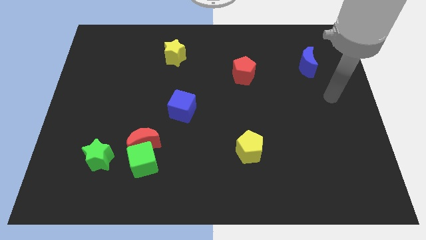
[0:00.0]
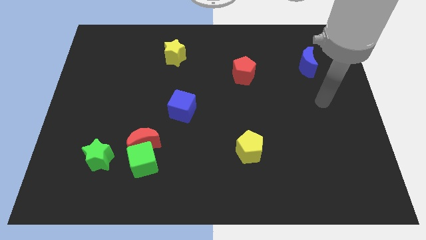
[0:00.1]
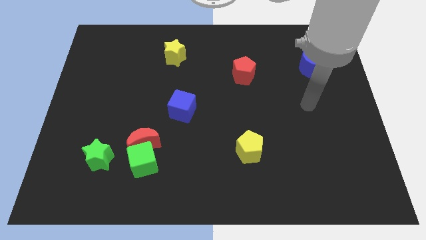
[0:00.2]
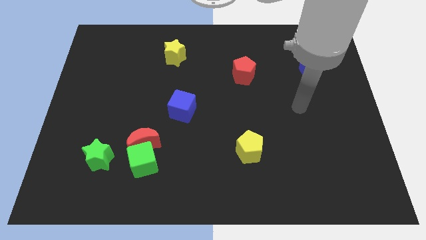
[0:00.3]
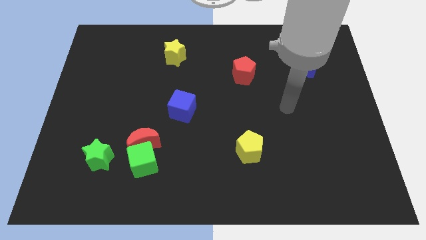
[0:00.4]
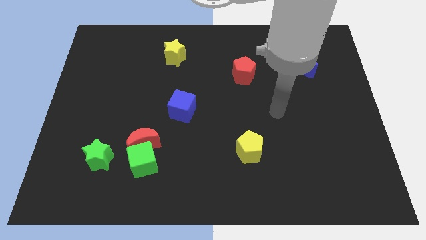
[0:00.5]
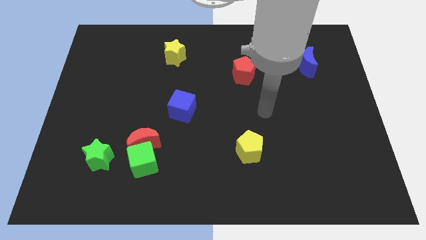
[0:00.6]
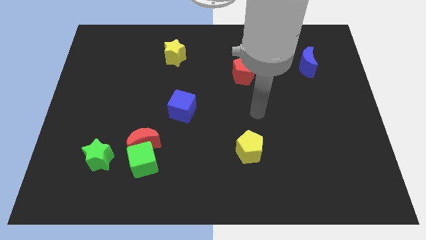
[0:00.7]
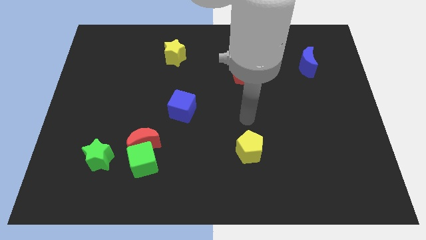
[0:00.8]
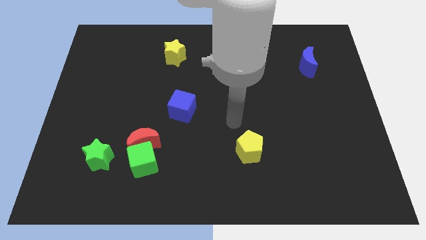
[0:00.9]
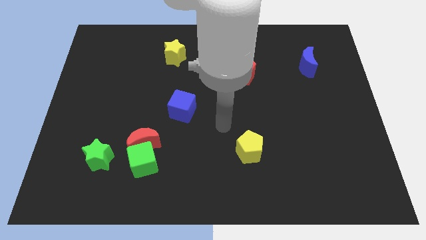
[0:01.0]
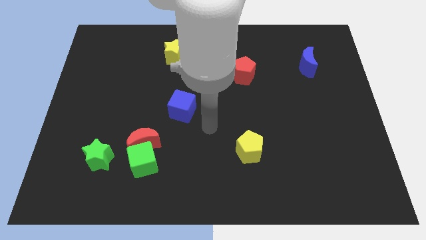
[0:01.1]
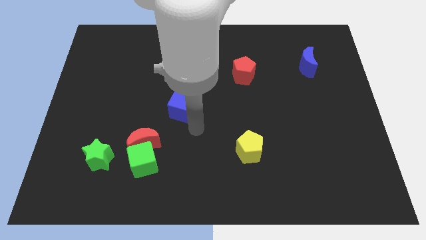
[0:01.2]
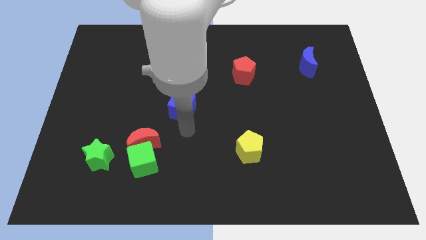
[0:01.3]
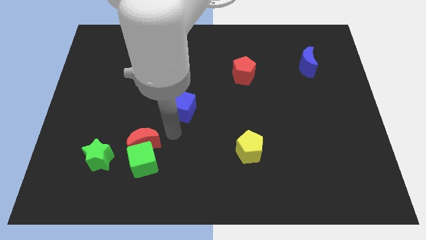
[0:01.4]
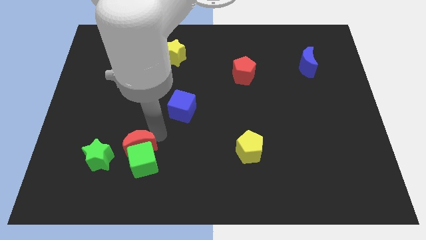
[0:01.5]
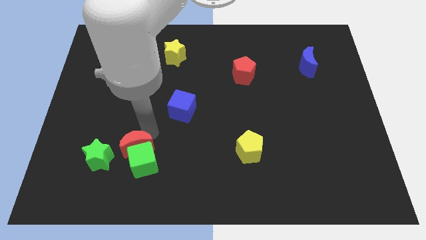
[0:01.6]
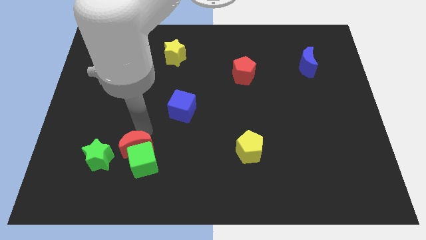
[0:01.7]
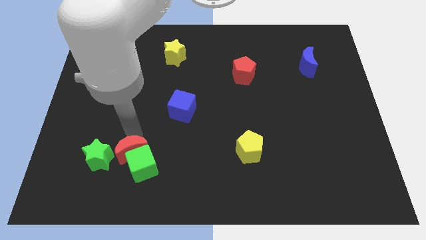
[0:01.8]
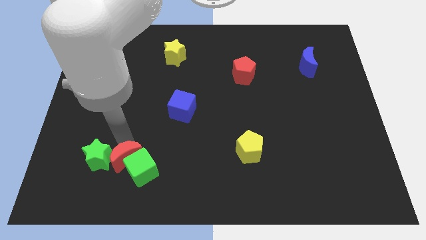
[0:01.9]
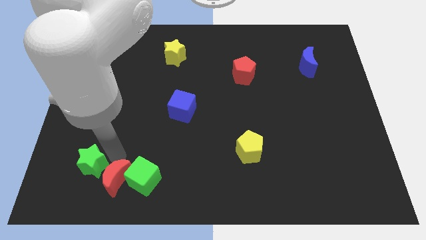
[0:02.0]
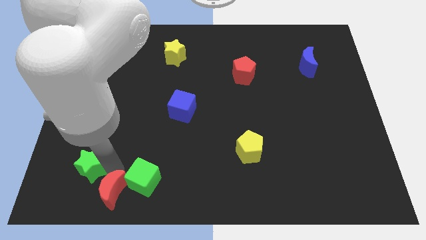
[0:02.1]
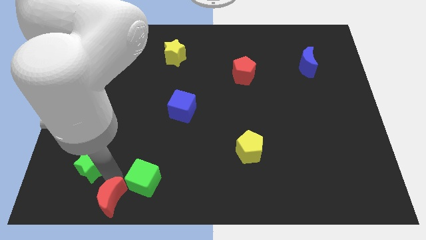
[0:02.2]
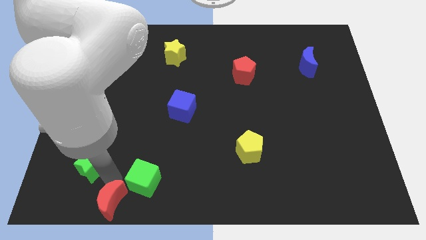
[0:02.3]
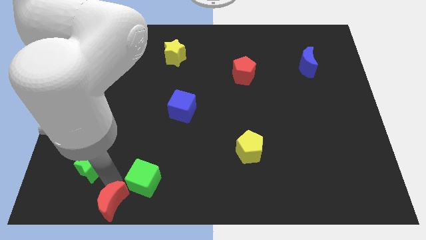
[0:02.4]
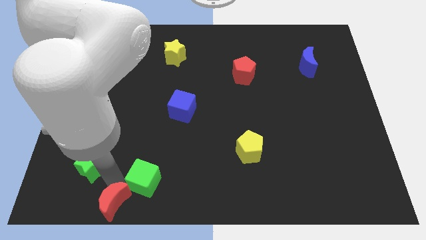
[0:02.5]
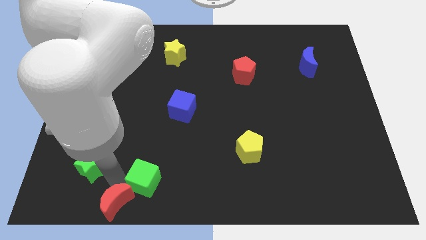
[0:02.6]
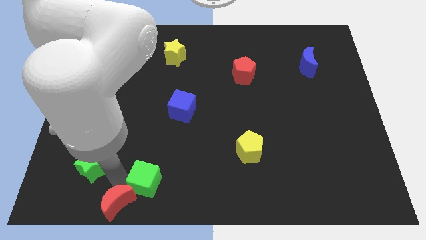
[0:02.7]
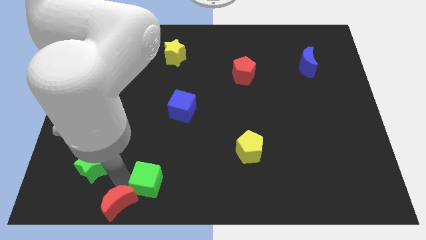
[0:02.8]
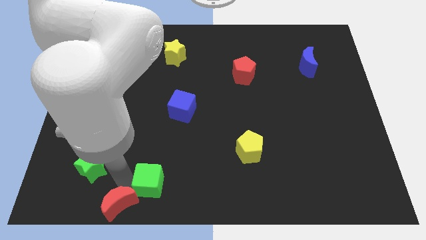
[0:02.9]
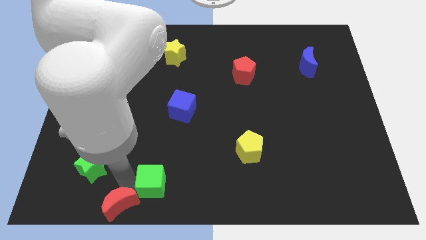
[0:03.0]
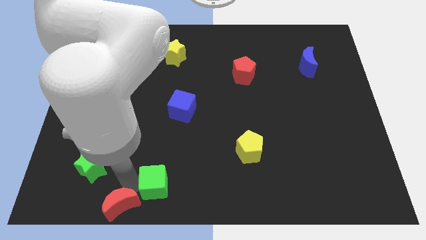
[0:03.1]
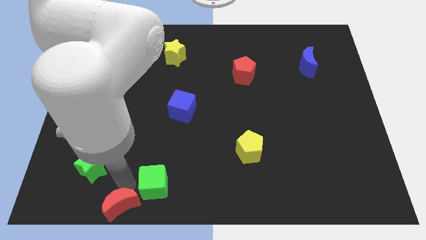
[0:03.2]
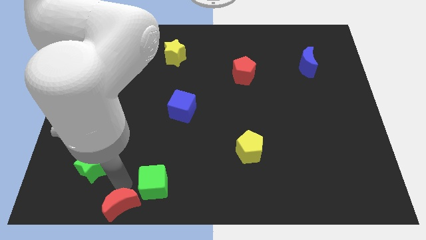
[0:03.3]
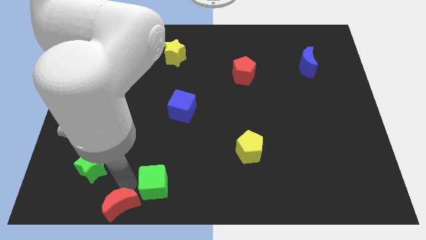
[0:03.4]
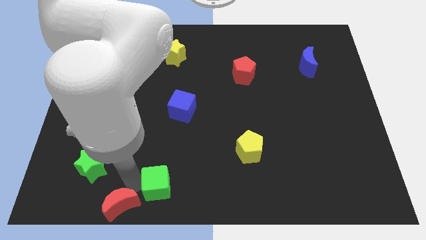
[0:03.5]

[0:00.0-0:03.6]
move the green cube away from the red moon and green star

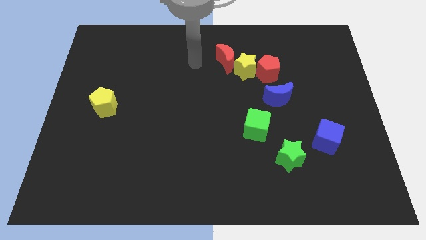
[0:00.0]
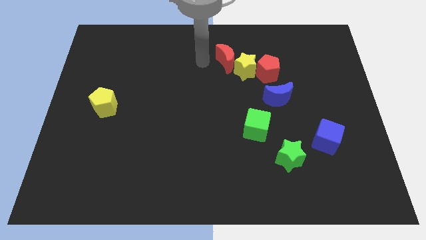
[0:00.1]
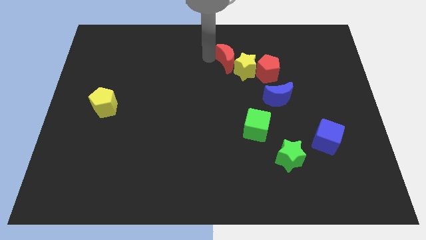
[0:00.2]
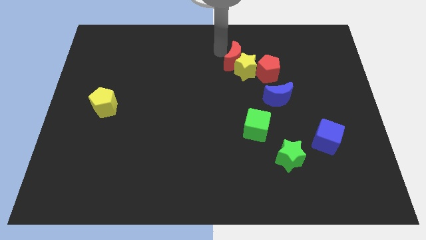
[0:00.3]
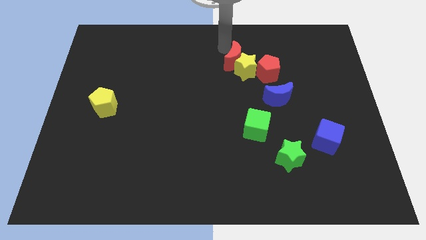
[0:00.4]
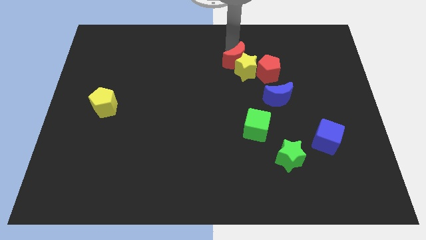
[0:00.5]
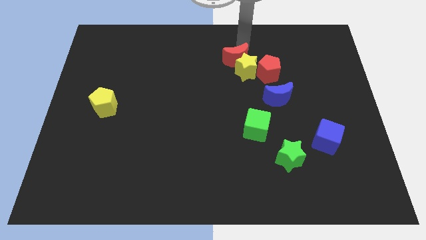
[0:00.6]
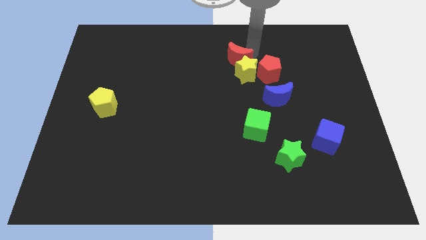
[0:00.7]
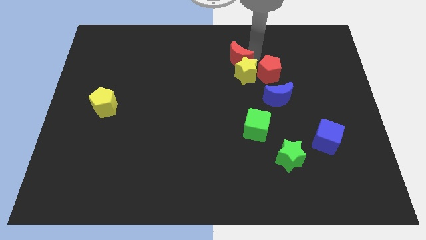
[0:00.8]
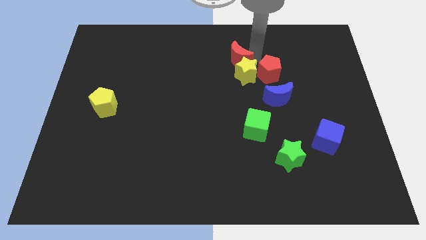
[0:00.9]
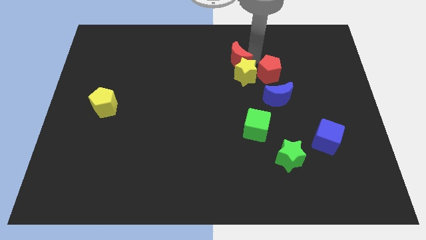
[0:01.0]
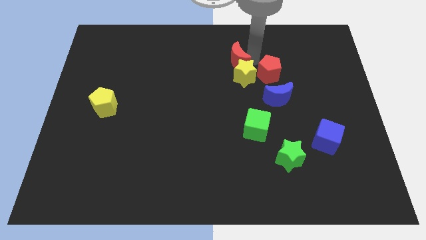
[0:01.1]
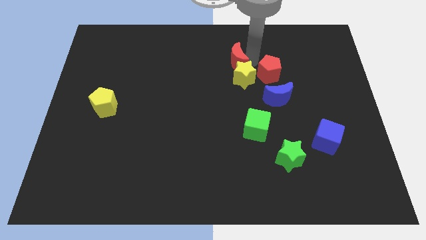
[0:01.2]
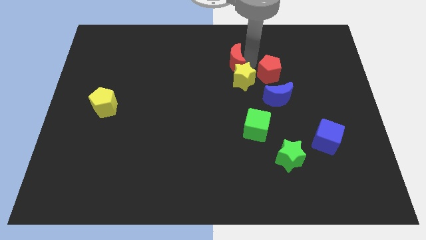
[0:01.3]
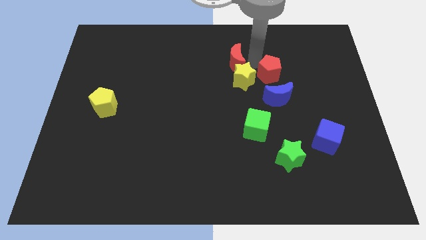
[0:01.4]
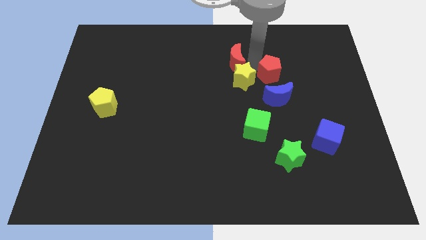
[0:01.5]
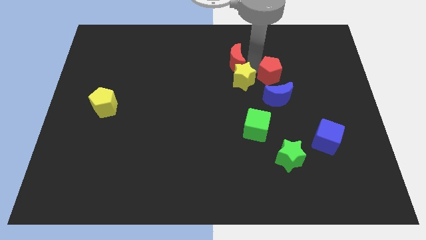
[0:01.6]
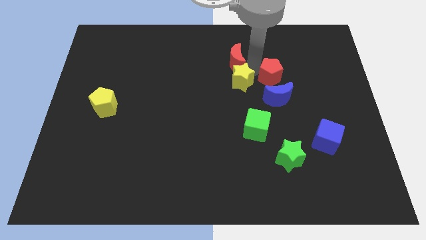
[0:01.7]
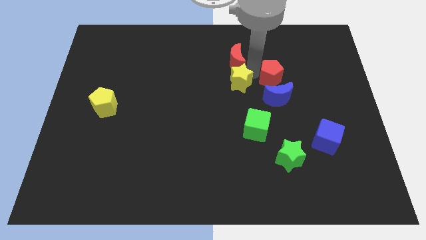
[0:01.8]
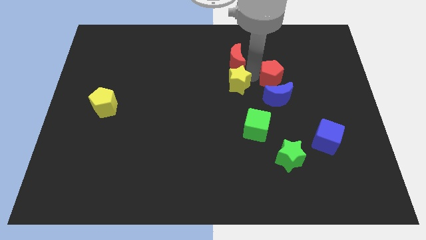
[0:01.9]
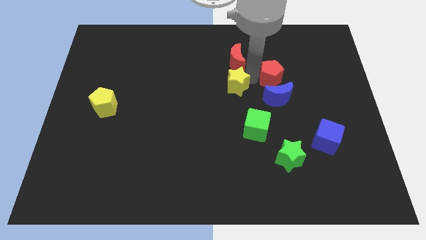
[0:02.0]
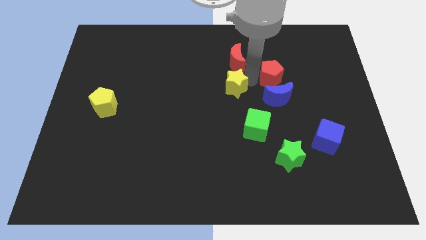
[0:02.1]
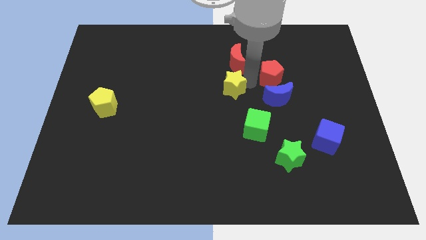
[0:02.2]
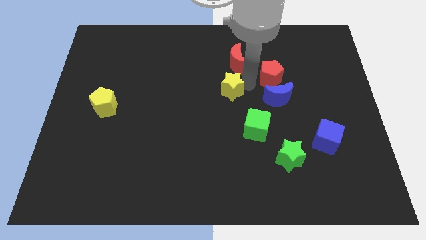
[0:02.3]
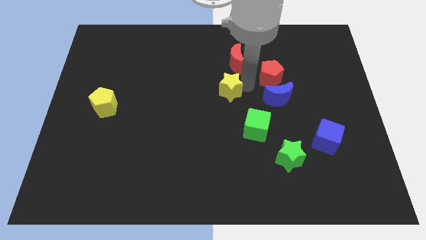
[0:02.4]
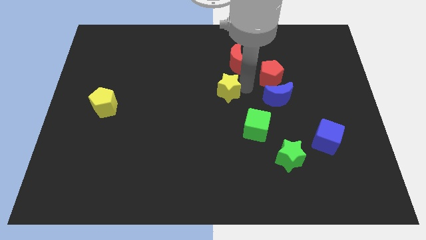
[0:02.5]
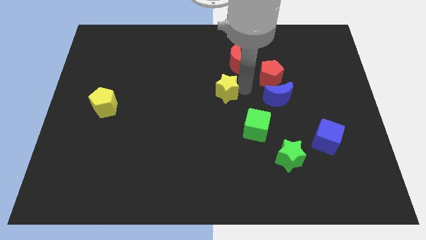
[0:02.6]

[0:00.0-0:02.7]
pull the yellow star apart from the red pentagon and red moon

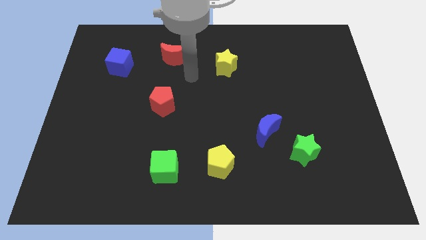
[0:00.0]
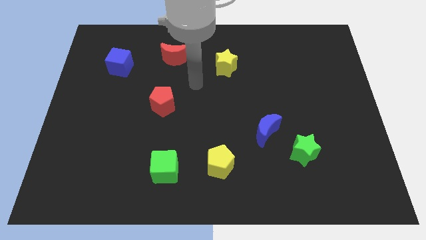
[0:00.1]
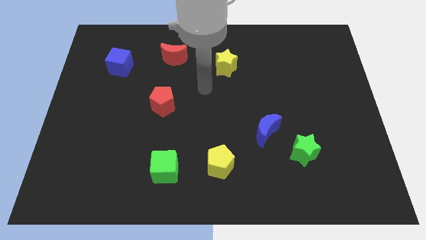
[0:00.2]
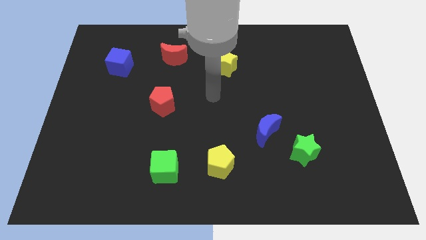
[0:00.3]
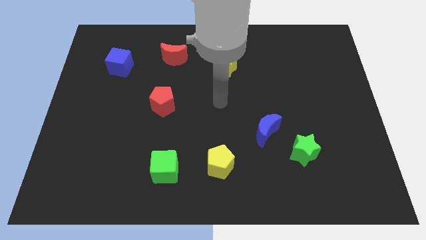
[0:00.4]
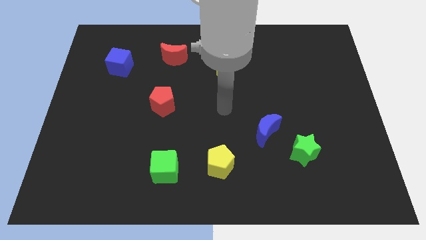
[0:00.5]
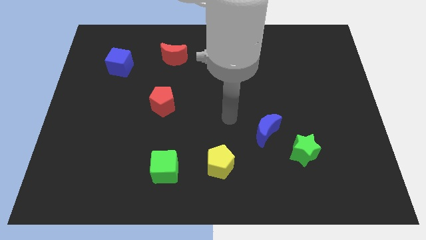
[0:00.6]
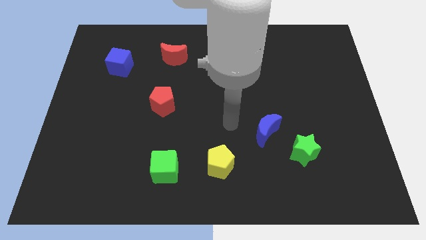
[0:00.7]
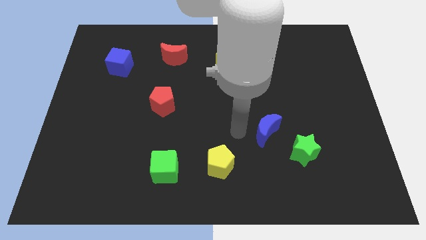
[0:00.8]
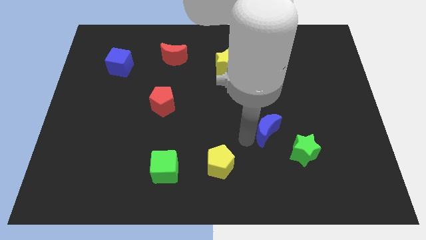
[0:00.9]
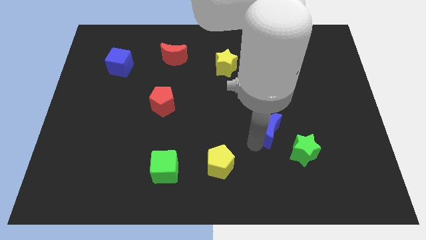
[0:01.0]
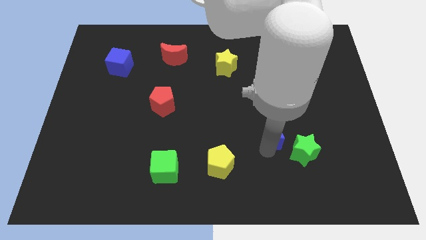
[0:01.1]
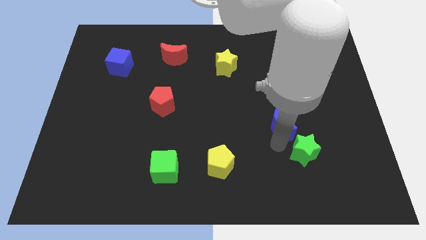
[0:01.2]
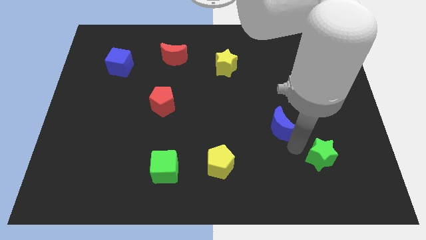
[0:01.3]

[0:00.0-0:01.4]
separate the blue moon from the green star

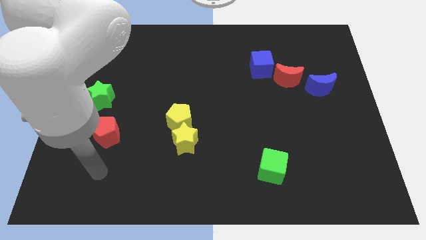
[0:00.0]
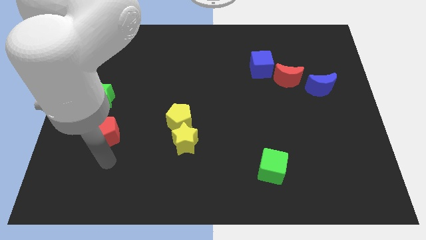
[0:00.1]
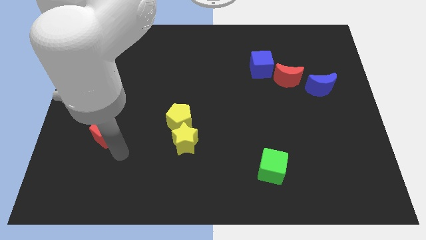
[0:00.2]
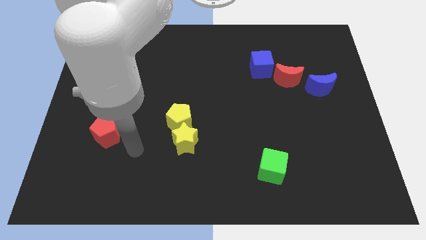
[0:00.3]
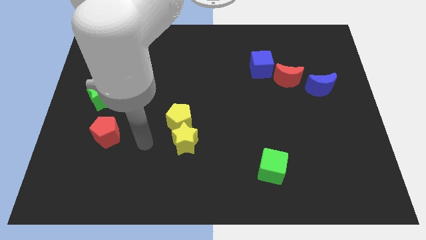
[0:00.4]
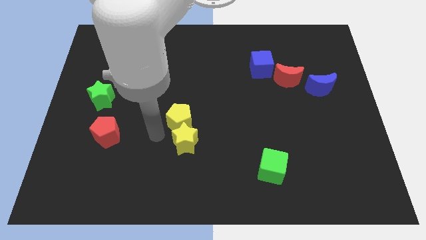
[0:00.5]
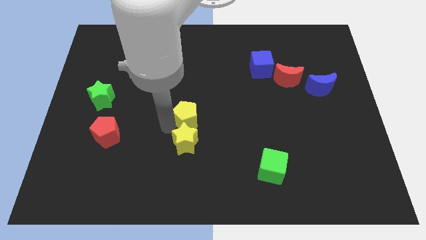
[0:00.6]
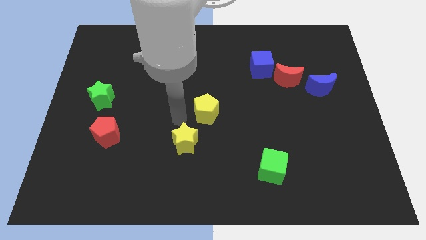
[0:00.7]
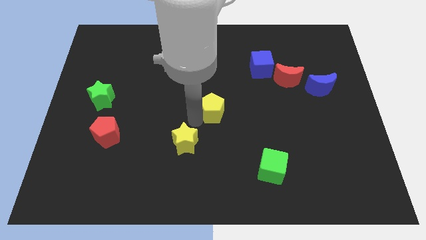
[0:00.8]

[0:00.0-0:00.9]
move the yellow star away from the yellow pentagon

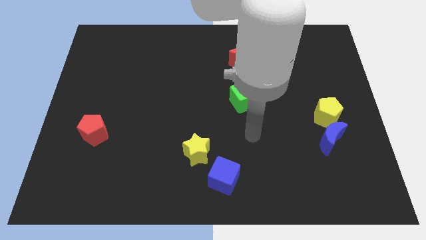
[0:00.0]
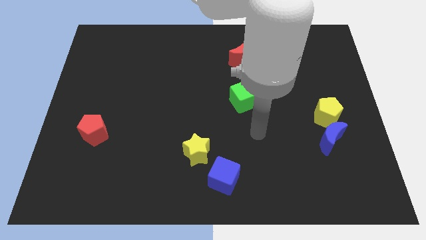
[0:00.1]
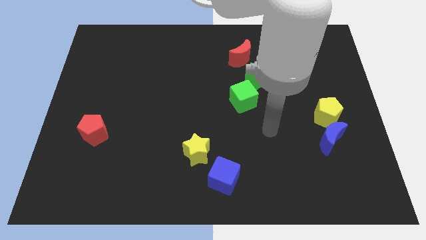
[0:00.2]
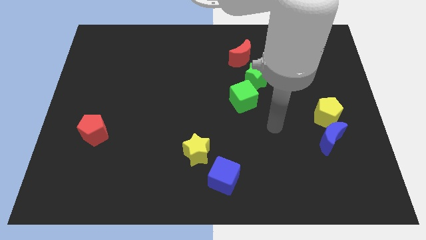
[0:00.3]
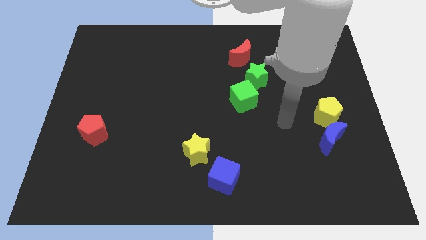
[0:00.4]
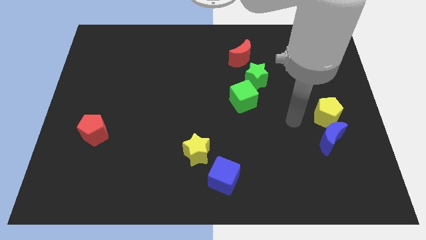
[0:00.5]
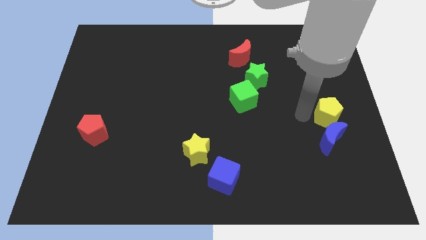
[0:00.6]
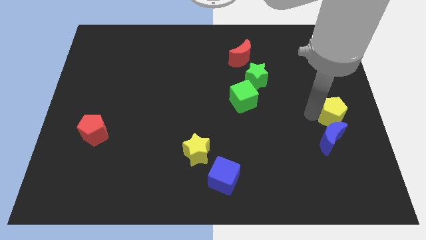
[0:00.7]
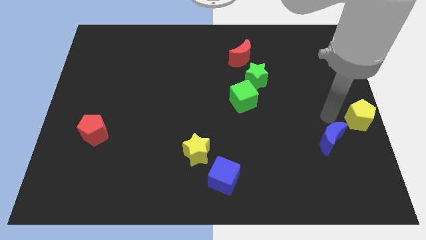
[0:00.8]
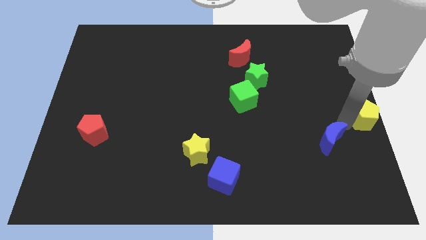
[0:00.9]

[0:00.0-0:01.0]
separate the blue moon from the yellow pentagon
